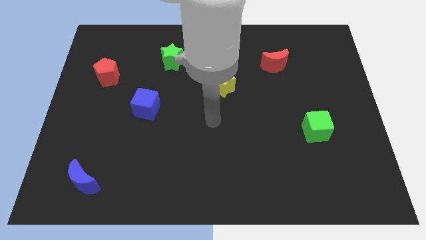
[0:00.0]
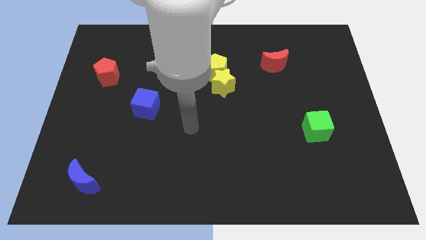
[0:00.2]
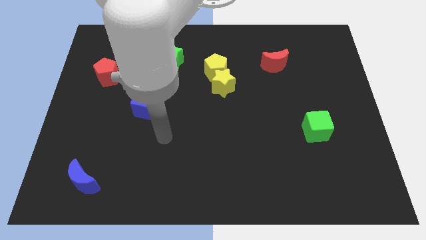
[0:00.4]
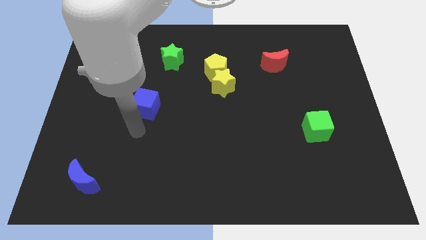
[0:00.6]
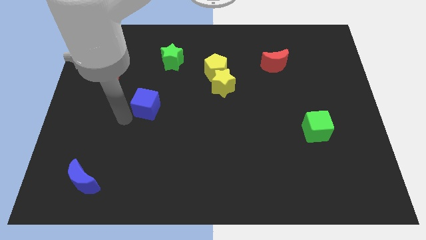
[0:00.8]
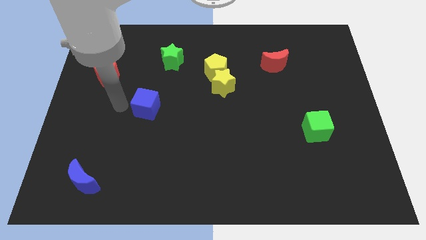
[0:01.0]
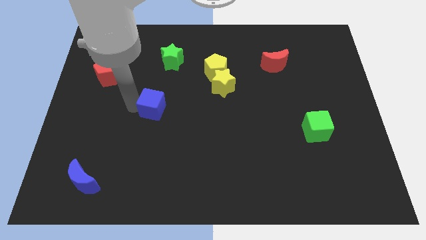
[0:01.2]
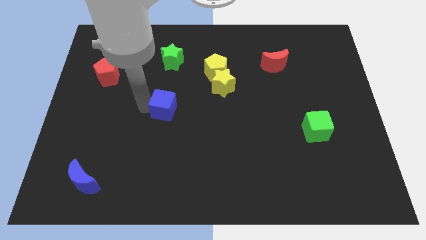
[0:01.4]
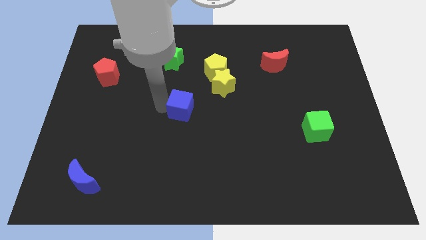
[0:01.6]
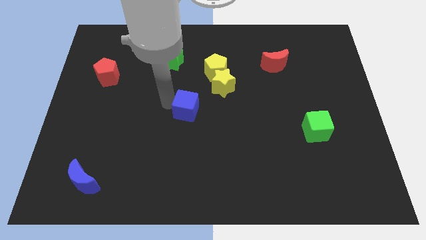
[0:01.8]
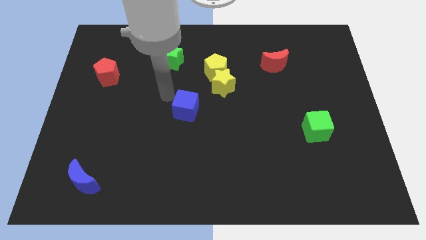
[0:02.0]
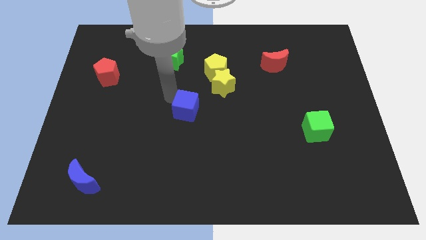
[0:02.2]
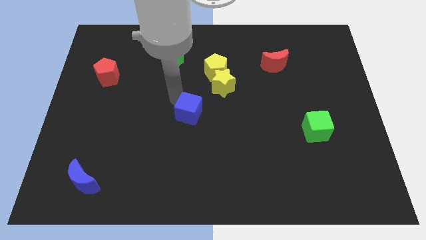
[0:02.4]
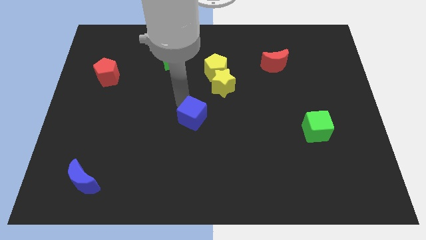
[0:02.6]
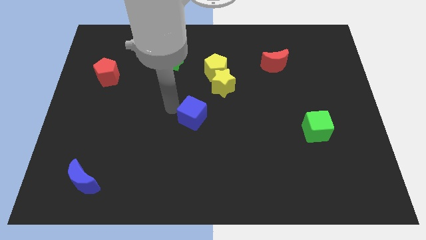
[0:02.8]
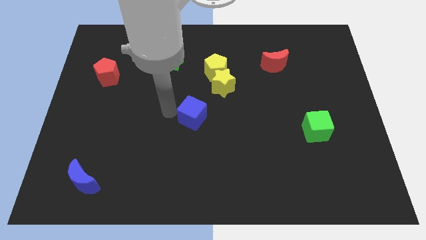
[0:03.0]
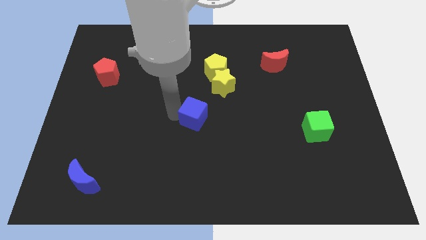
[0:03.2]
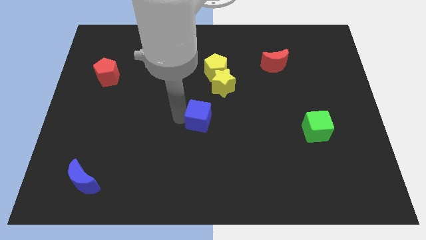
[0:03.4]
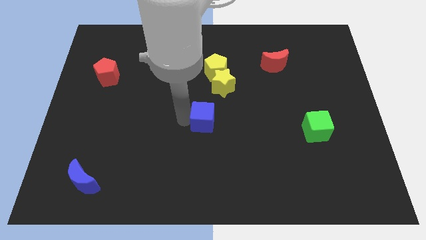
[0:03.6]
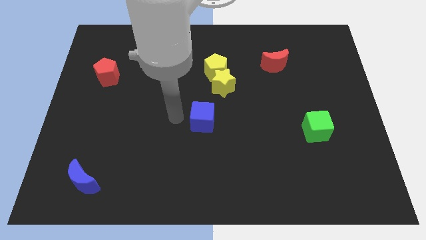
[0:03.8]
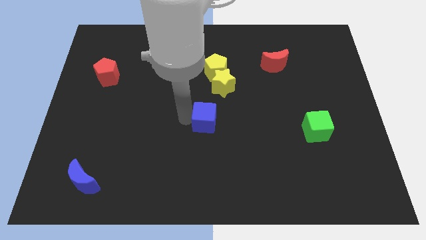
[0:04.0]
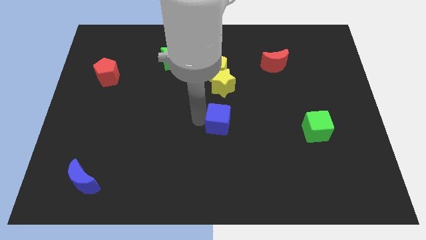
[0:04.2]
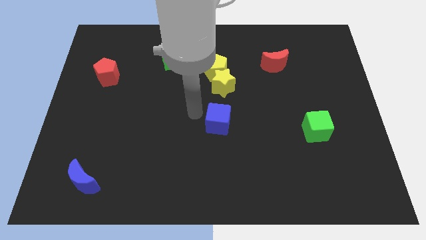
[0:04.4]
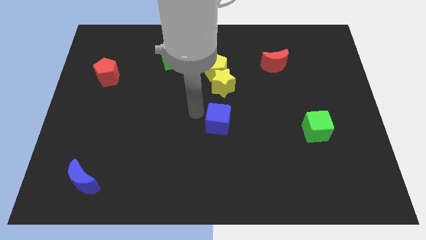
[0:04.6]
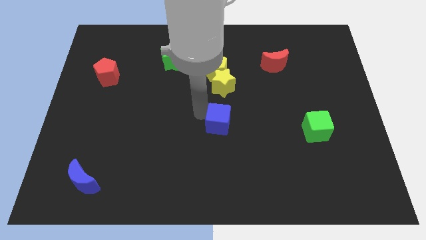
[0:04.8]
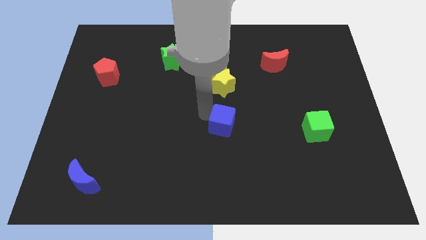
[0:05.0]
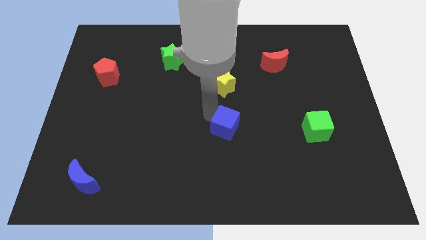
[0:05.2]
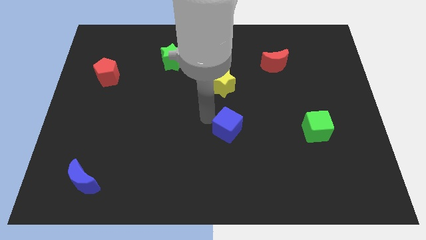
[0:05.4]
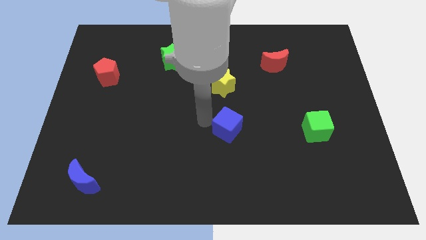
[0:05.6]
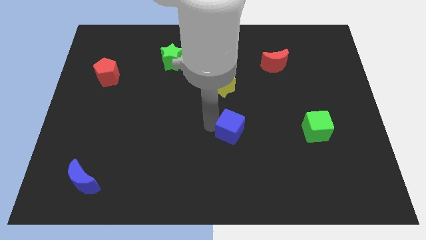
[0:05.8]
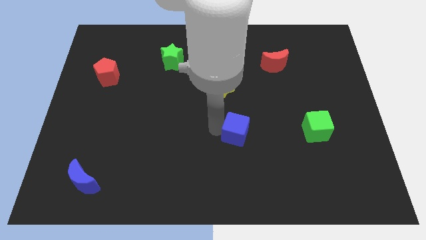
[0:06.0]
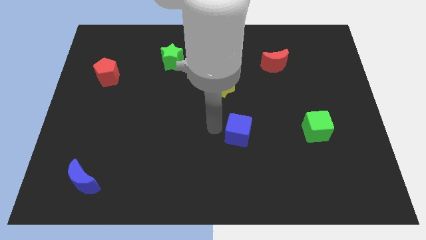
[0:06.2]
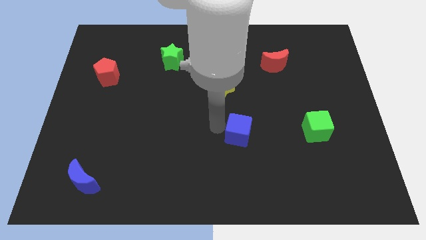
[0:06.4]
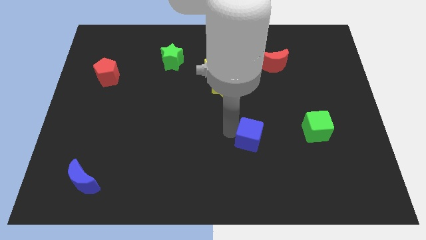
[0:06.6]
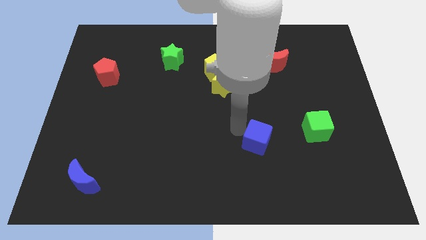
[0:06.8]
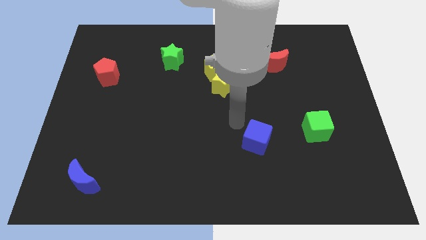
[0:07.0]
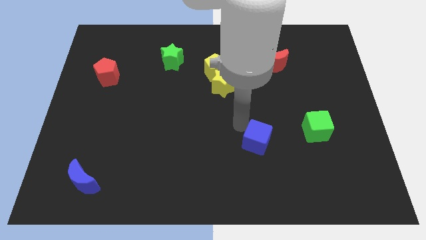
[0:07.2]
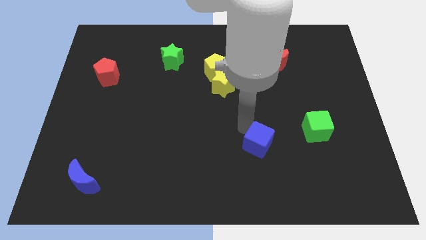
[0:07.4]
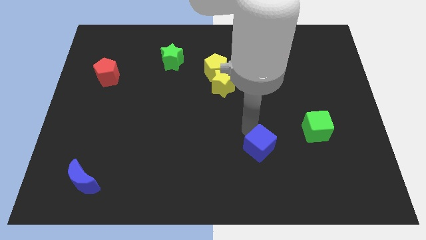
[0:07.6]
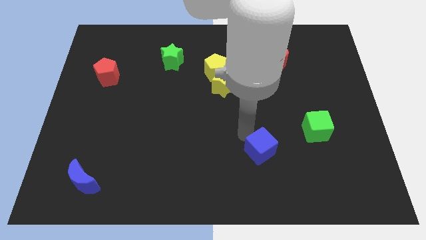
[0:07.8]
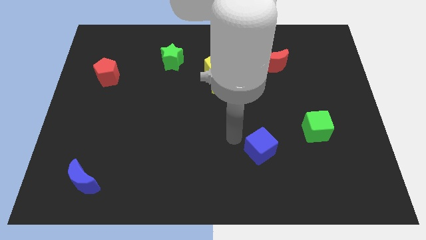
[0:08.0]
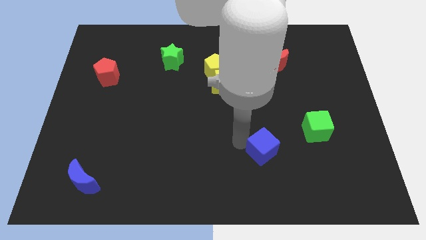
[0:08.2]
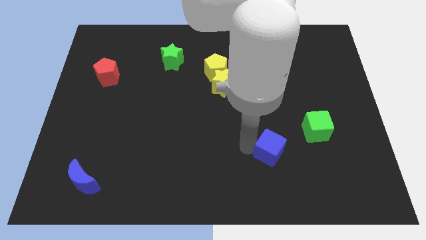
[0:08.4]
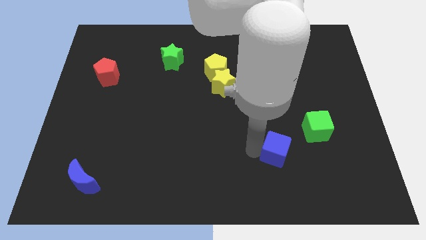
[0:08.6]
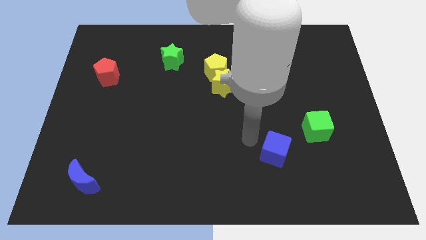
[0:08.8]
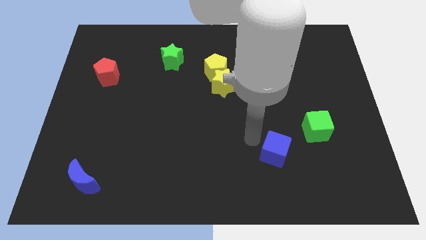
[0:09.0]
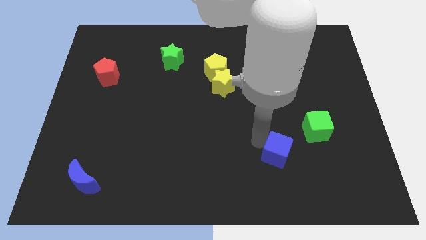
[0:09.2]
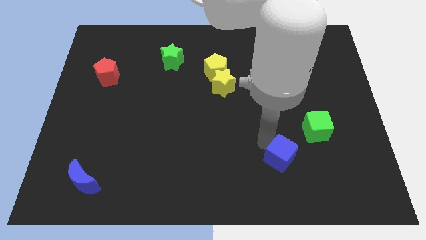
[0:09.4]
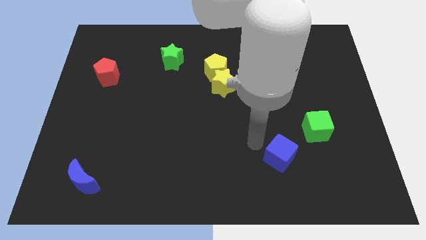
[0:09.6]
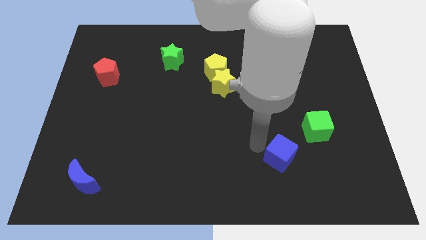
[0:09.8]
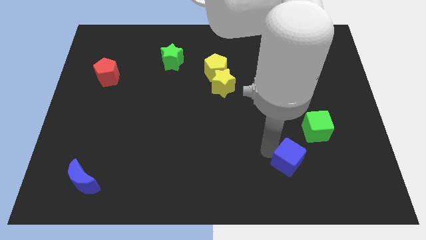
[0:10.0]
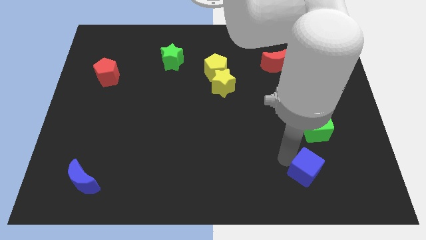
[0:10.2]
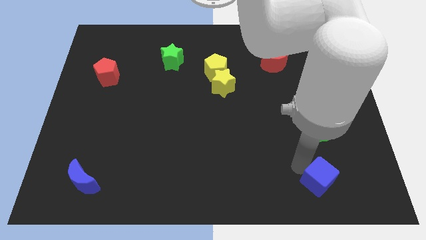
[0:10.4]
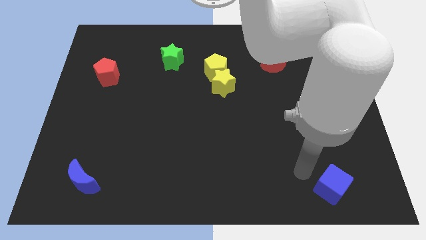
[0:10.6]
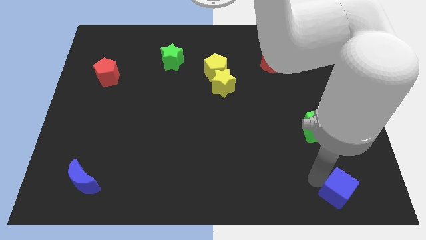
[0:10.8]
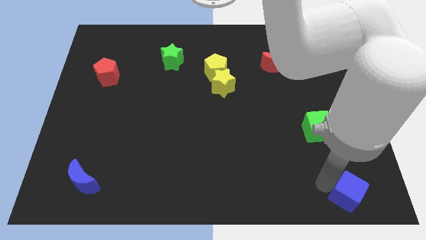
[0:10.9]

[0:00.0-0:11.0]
put the blue cube to the bottom right
